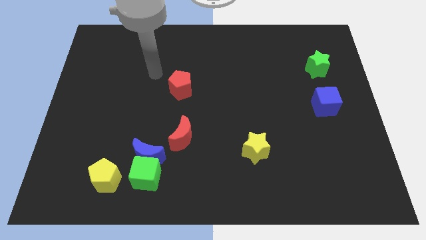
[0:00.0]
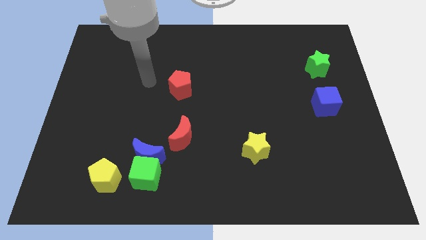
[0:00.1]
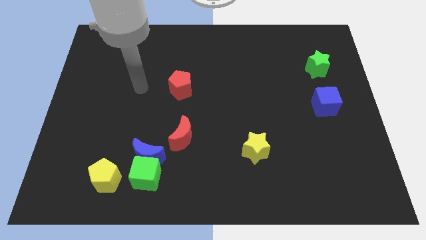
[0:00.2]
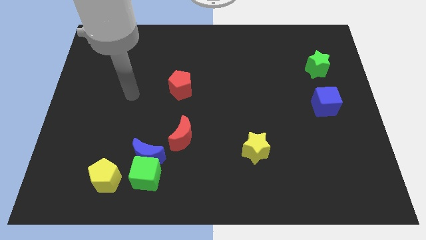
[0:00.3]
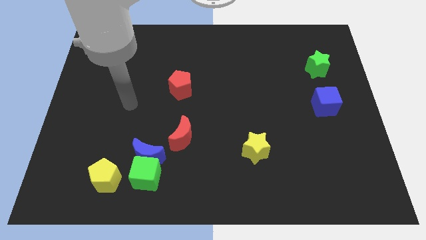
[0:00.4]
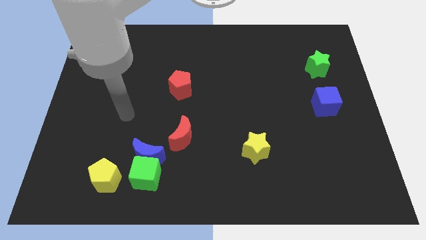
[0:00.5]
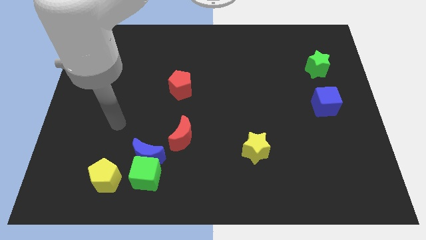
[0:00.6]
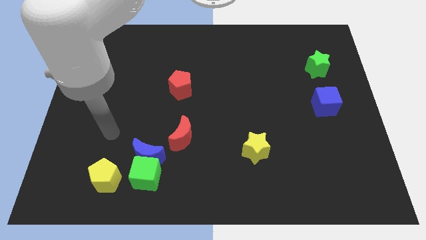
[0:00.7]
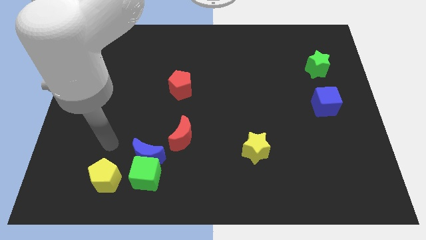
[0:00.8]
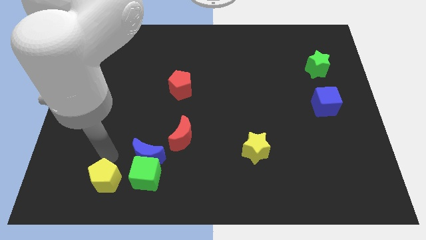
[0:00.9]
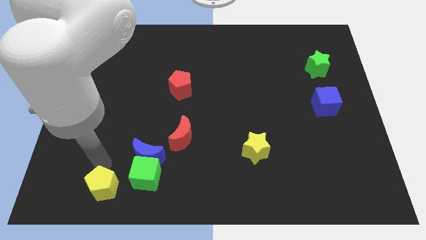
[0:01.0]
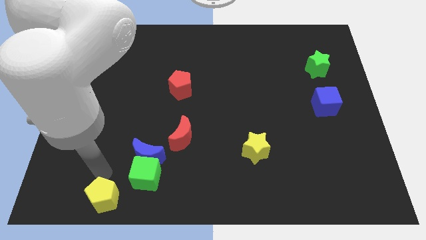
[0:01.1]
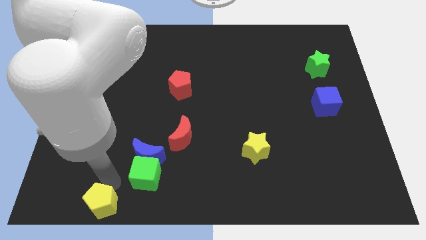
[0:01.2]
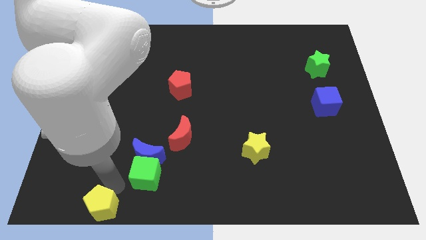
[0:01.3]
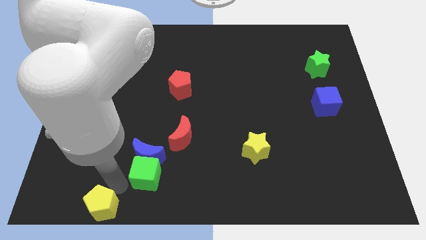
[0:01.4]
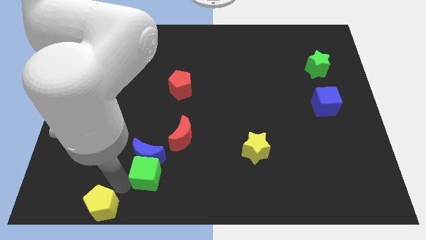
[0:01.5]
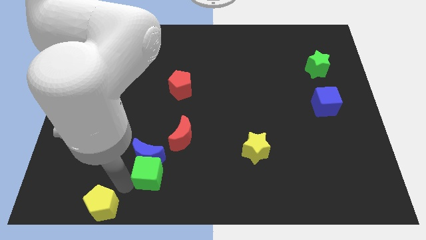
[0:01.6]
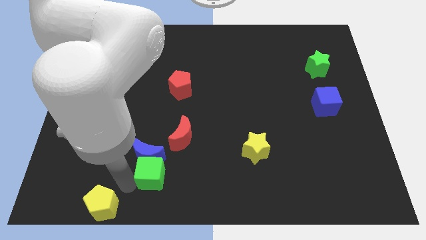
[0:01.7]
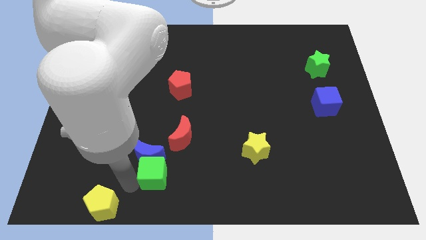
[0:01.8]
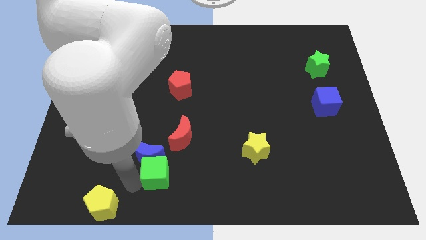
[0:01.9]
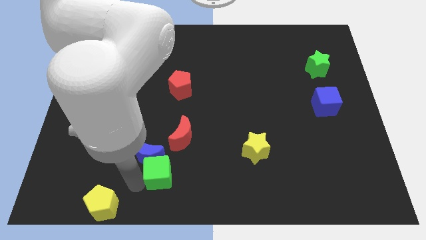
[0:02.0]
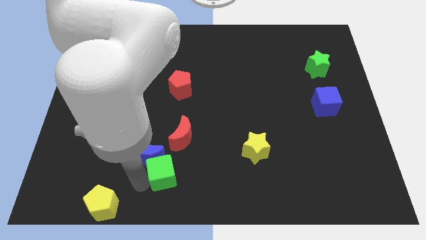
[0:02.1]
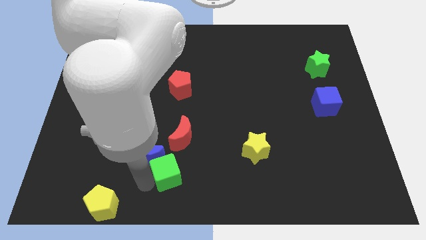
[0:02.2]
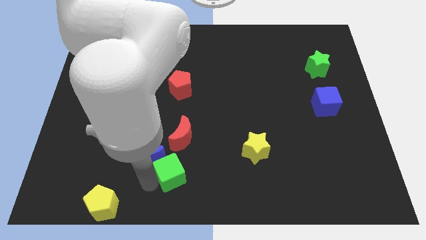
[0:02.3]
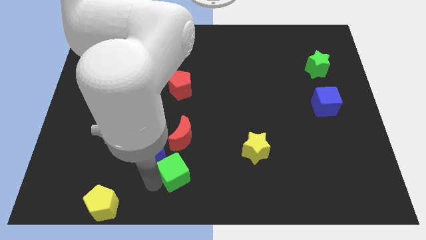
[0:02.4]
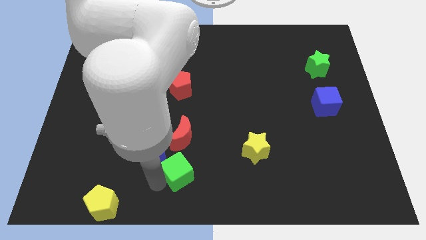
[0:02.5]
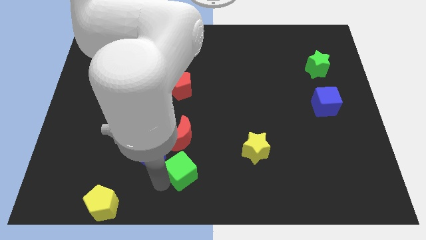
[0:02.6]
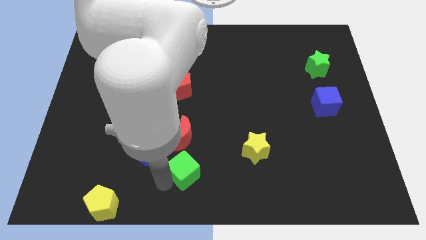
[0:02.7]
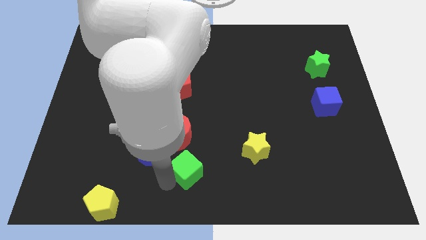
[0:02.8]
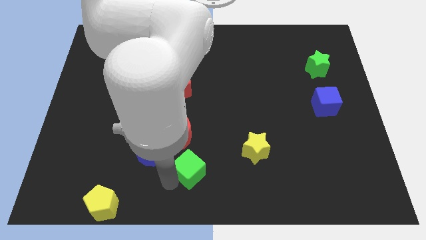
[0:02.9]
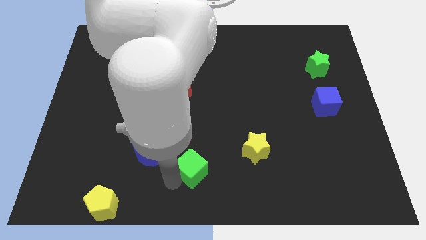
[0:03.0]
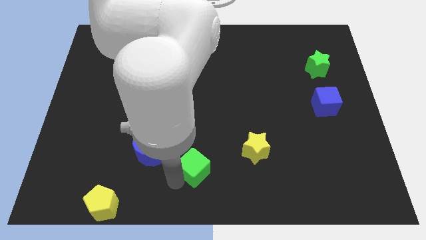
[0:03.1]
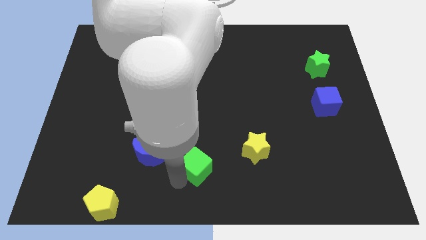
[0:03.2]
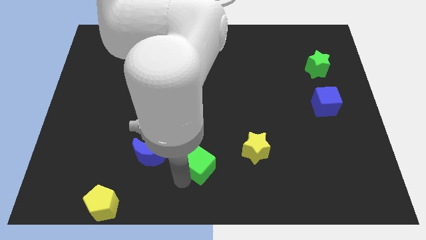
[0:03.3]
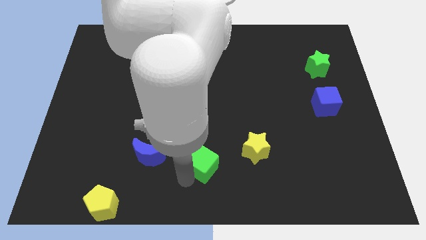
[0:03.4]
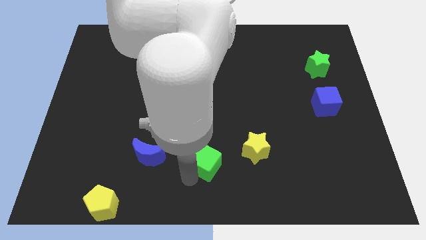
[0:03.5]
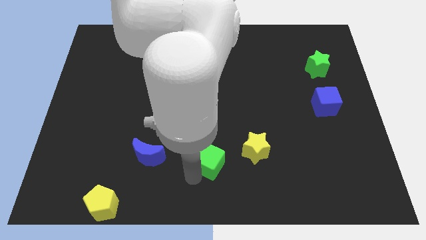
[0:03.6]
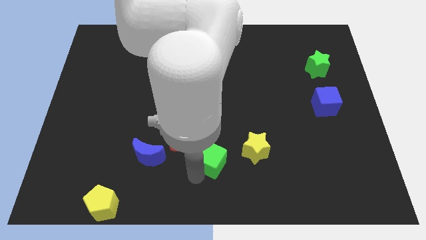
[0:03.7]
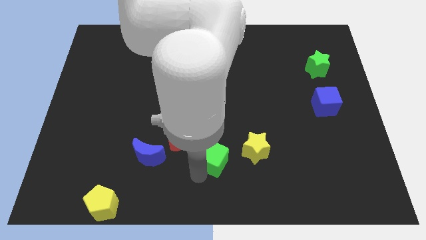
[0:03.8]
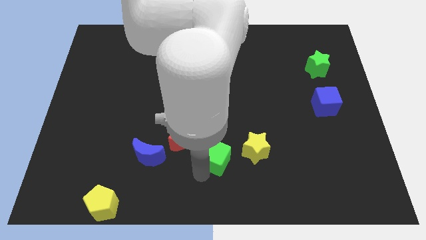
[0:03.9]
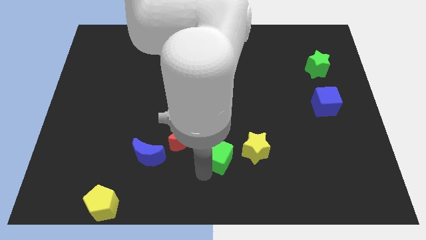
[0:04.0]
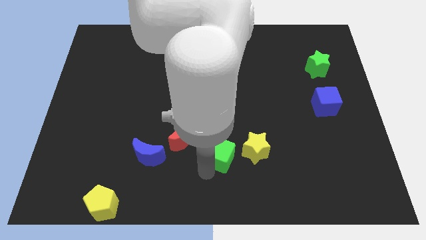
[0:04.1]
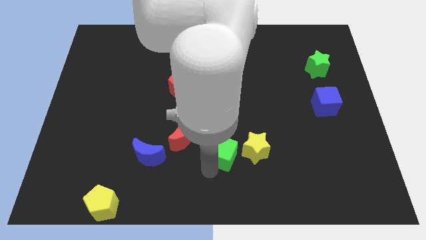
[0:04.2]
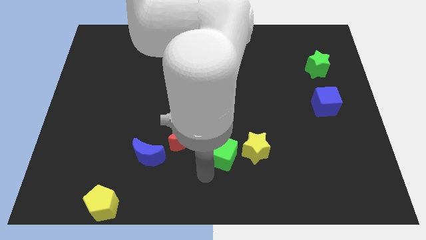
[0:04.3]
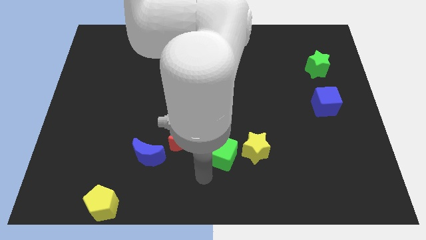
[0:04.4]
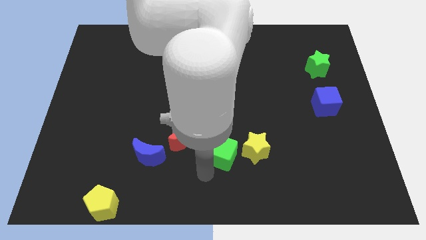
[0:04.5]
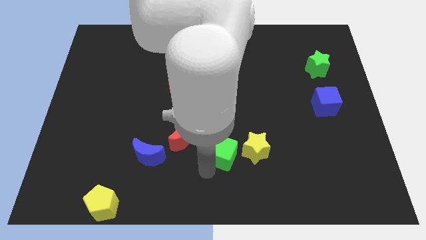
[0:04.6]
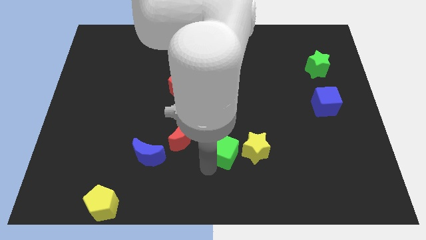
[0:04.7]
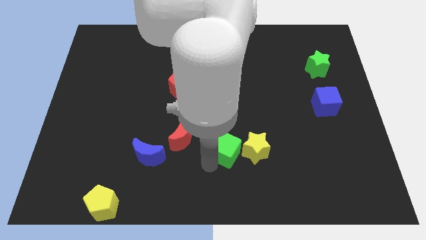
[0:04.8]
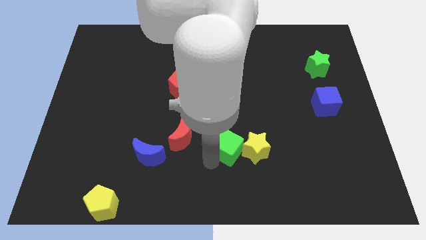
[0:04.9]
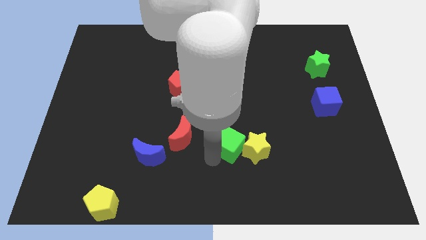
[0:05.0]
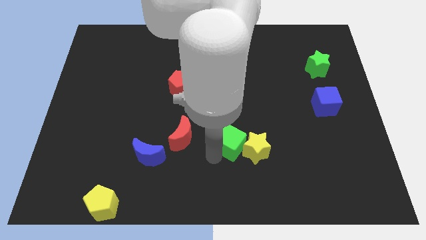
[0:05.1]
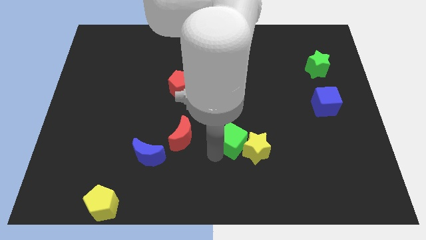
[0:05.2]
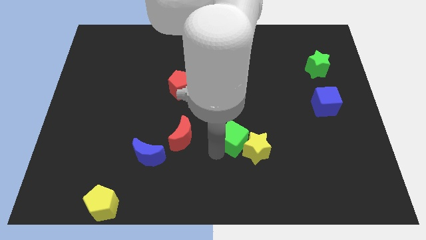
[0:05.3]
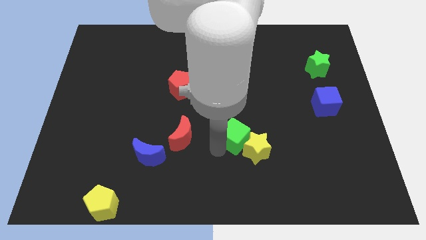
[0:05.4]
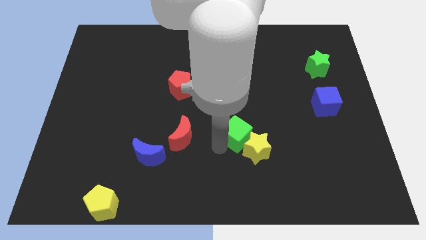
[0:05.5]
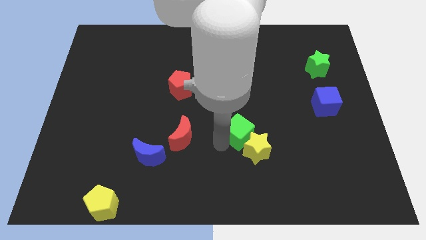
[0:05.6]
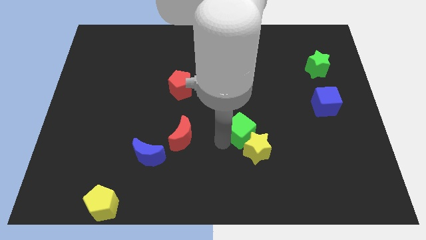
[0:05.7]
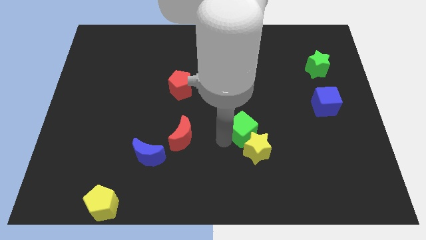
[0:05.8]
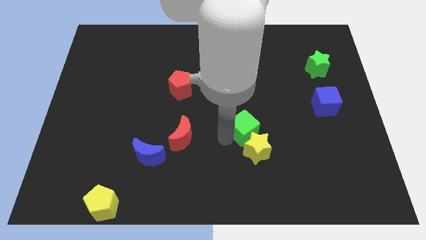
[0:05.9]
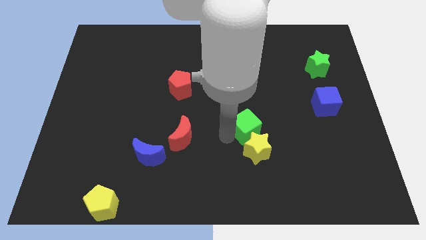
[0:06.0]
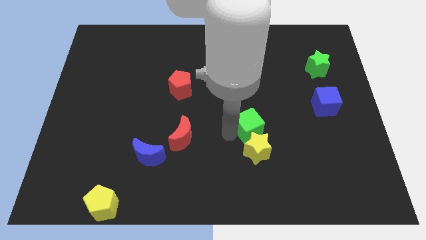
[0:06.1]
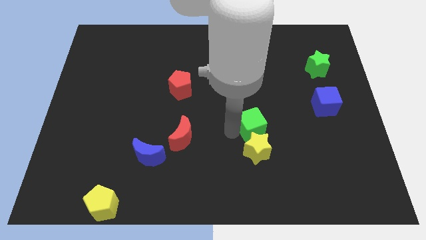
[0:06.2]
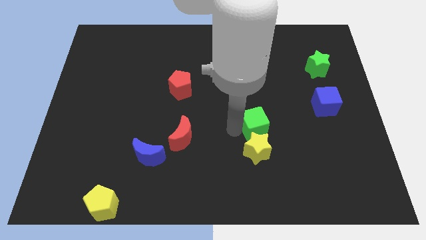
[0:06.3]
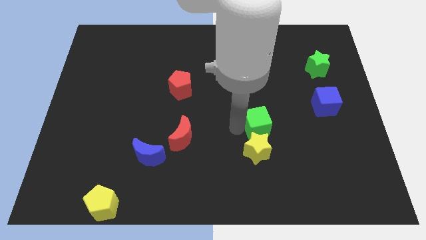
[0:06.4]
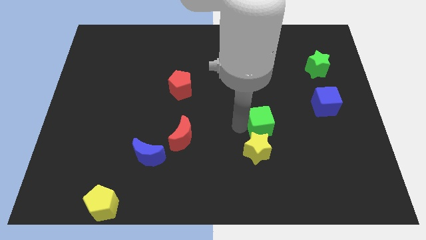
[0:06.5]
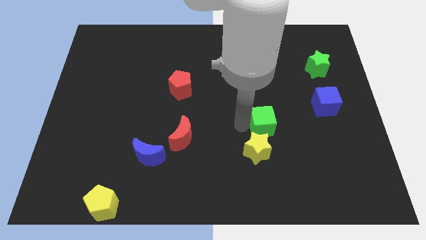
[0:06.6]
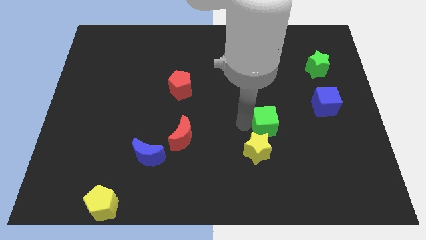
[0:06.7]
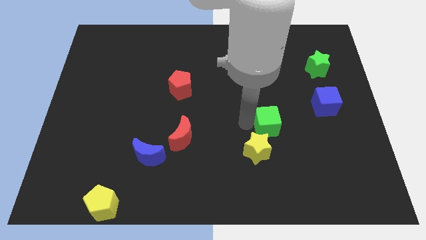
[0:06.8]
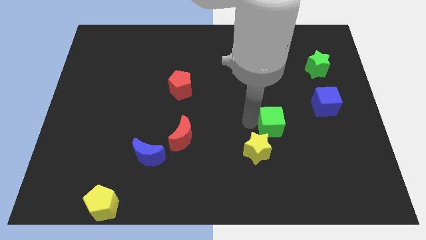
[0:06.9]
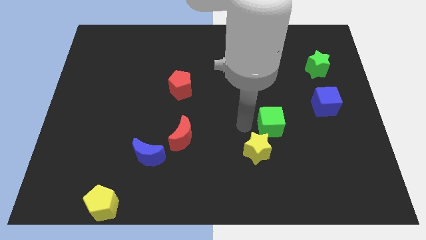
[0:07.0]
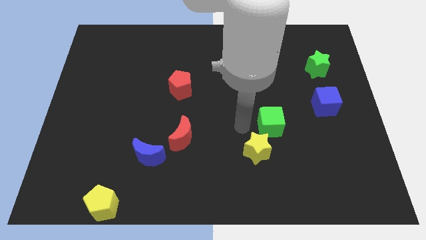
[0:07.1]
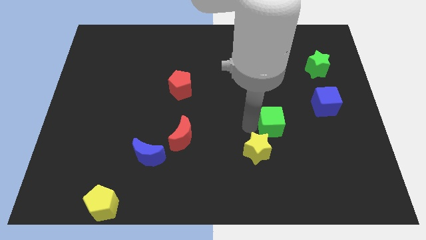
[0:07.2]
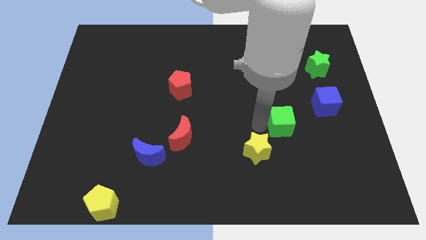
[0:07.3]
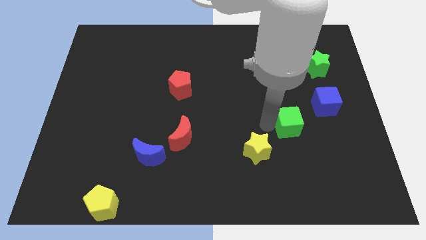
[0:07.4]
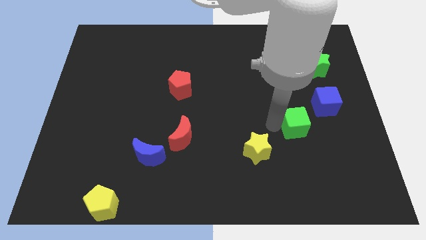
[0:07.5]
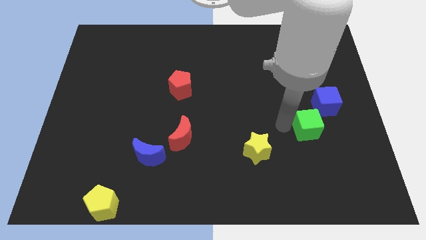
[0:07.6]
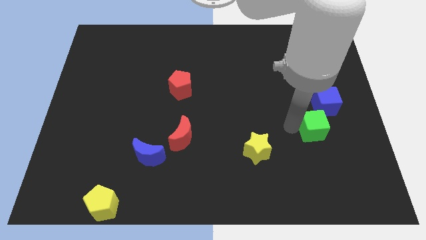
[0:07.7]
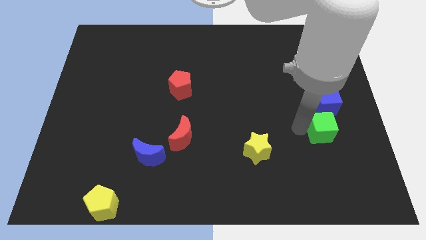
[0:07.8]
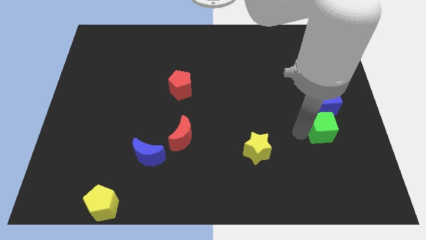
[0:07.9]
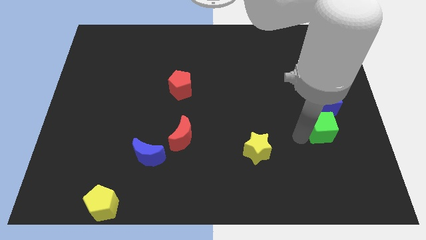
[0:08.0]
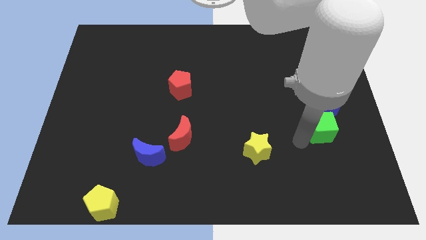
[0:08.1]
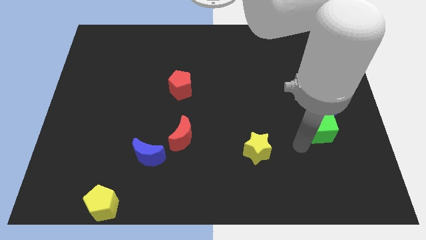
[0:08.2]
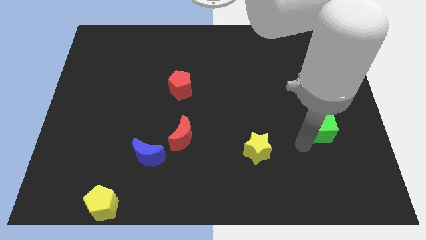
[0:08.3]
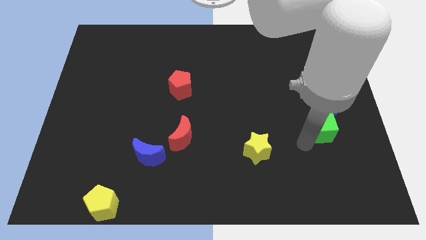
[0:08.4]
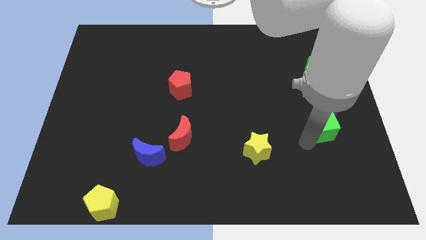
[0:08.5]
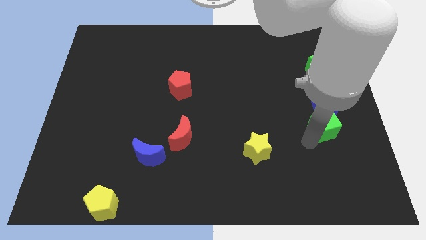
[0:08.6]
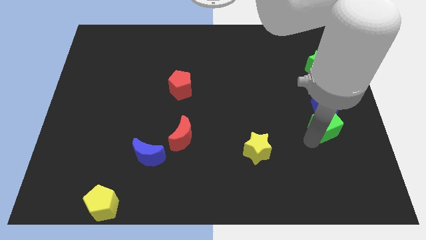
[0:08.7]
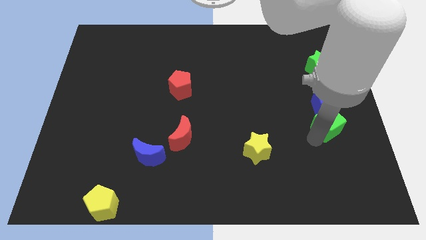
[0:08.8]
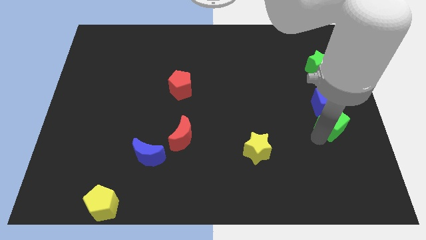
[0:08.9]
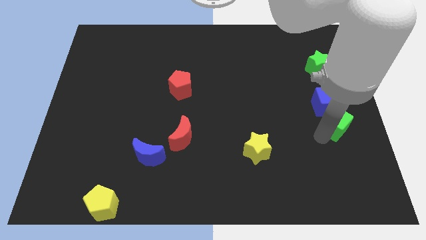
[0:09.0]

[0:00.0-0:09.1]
push the green cube to the right side of the board
